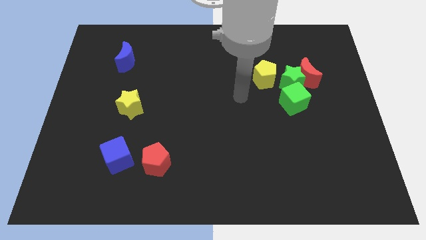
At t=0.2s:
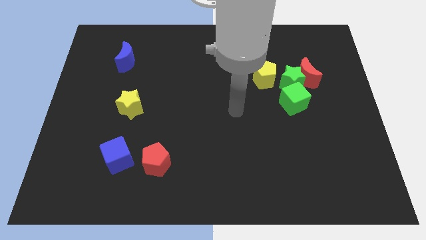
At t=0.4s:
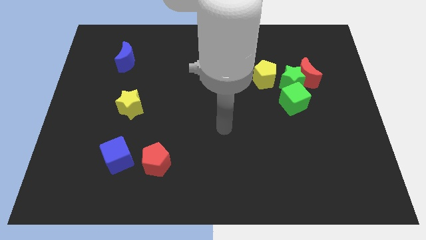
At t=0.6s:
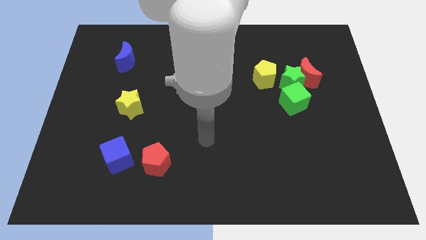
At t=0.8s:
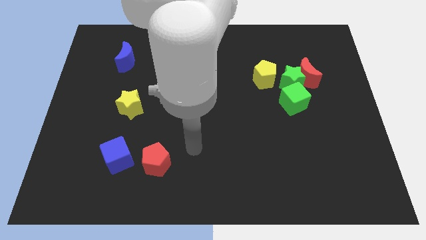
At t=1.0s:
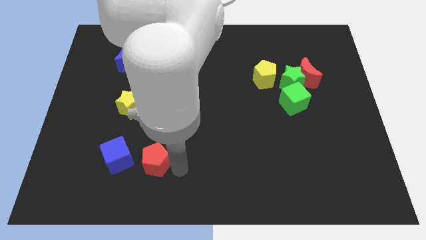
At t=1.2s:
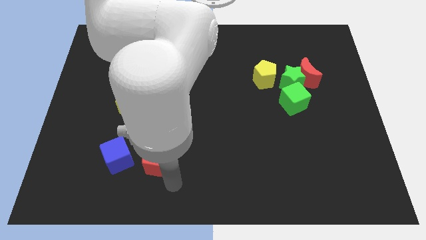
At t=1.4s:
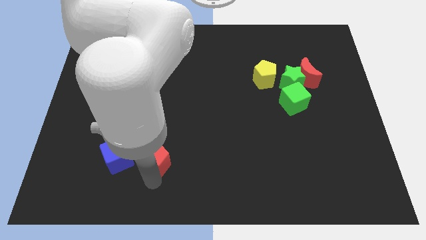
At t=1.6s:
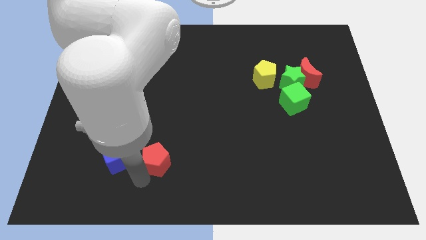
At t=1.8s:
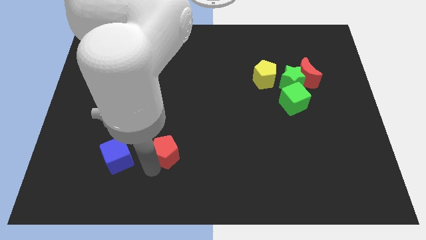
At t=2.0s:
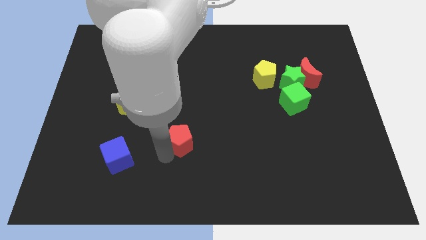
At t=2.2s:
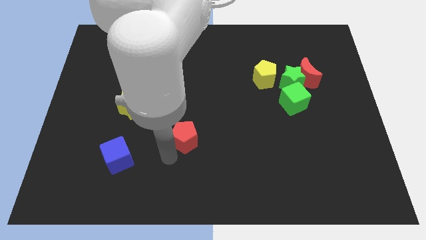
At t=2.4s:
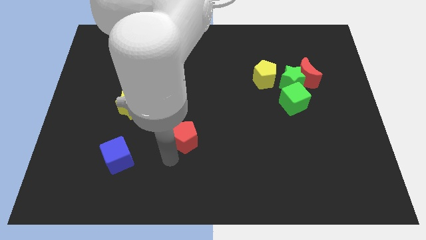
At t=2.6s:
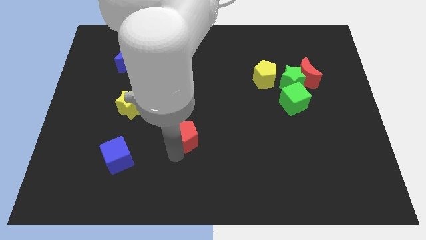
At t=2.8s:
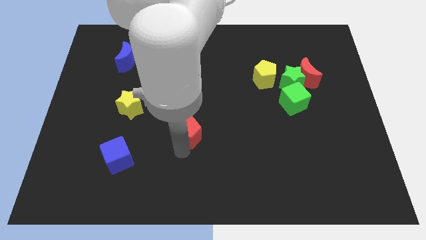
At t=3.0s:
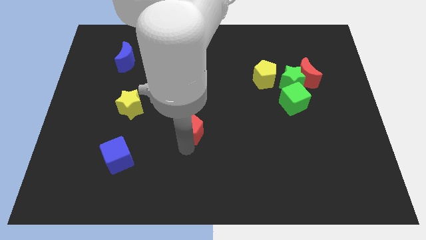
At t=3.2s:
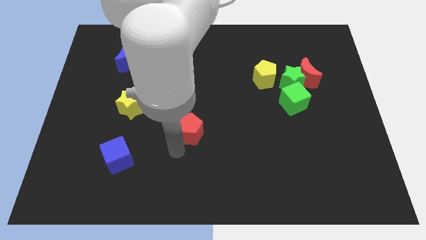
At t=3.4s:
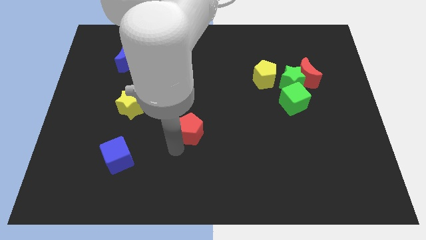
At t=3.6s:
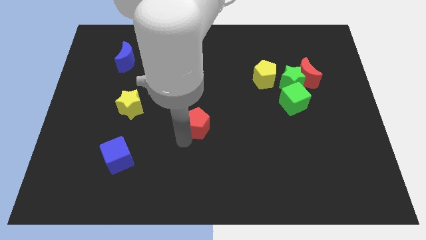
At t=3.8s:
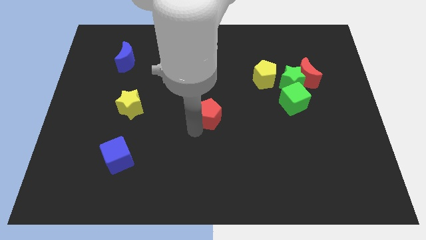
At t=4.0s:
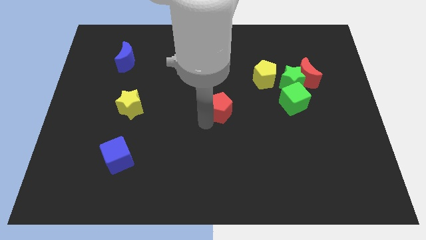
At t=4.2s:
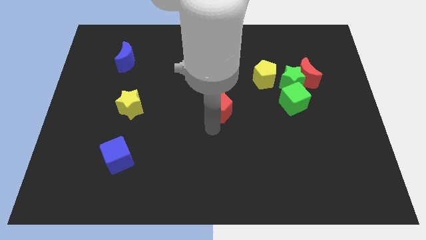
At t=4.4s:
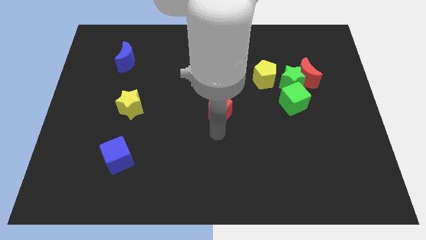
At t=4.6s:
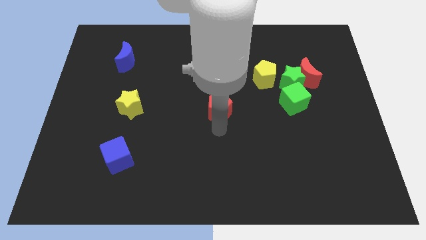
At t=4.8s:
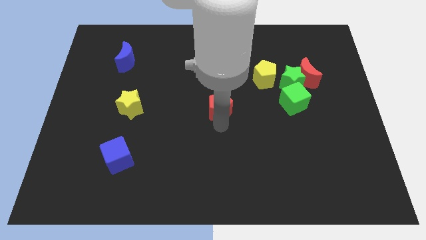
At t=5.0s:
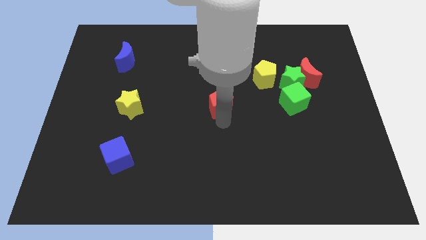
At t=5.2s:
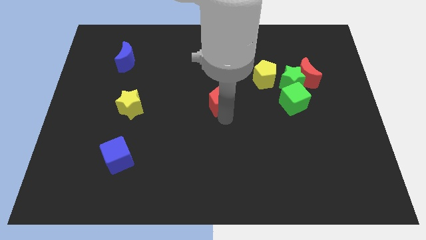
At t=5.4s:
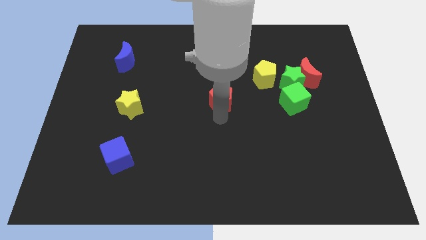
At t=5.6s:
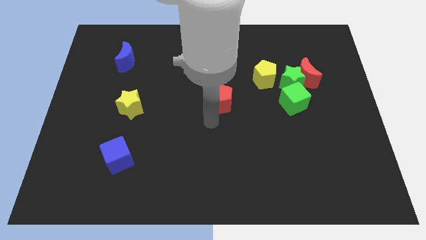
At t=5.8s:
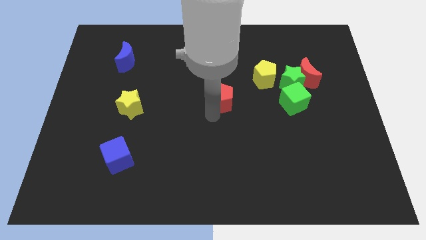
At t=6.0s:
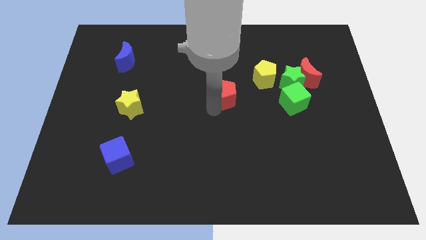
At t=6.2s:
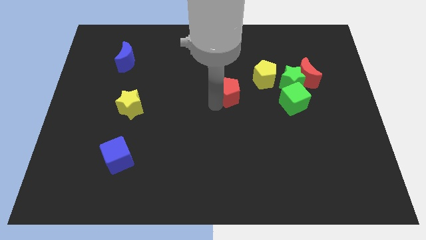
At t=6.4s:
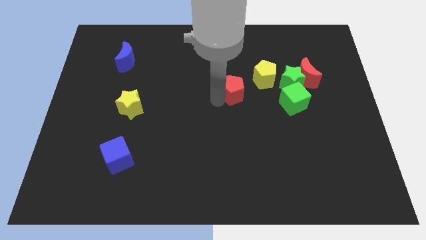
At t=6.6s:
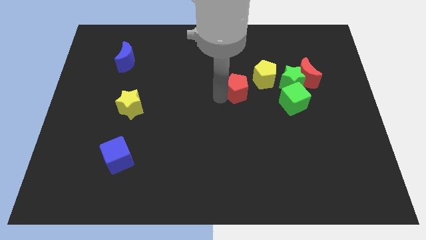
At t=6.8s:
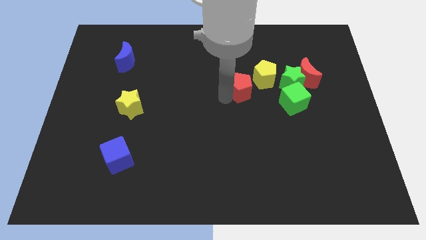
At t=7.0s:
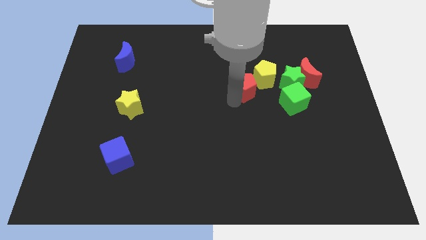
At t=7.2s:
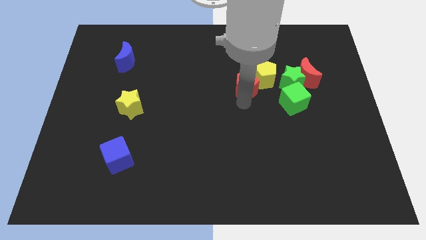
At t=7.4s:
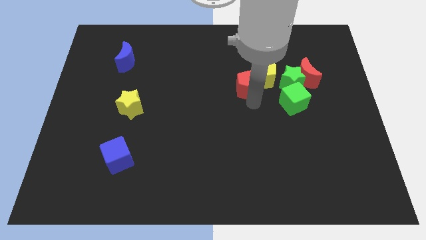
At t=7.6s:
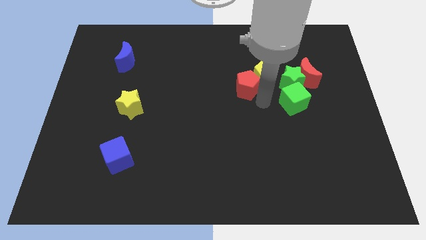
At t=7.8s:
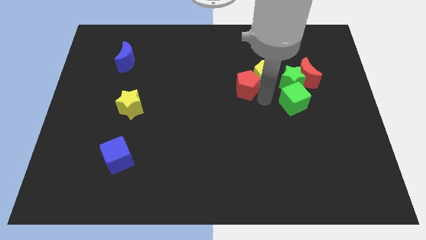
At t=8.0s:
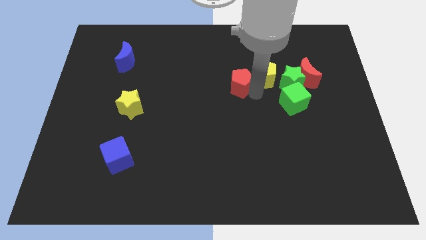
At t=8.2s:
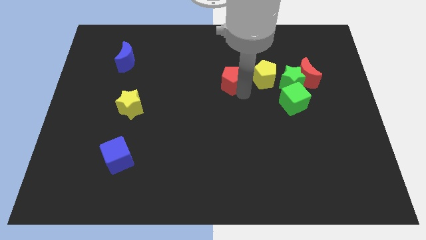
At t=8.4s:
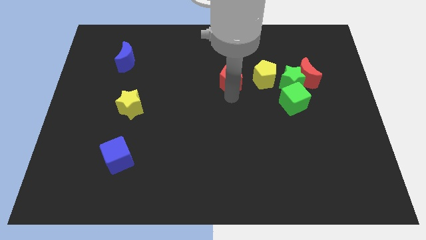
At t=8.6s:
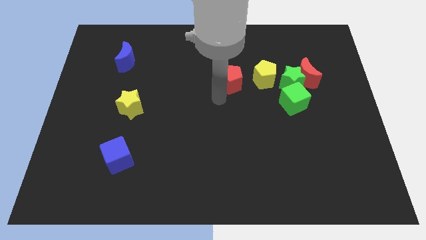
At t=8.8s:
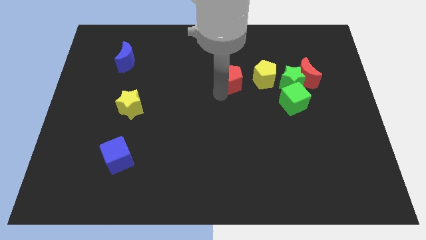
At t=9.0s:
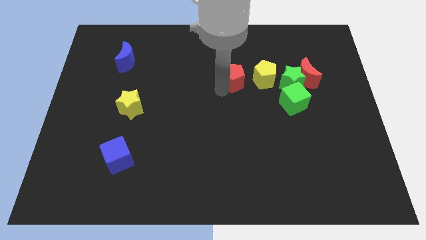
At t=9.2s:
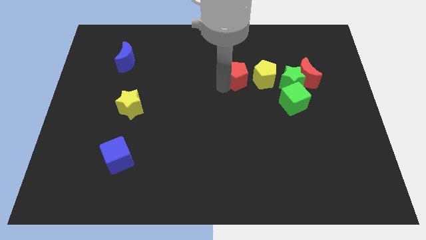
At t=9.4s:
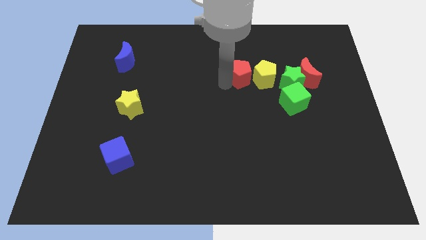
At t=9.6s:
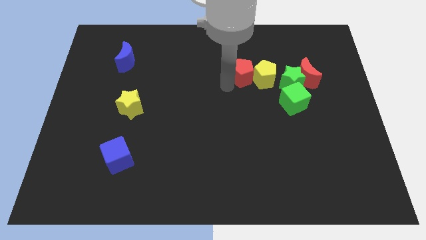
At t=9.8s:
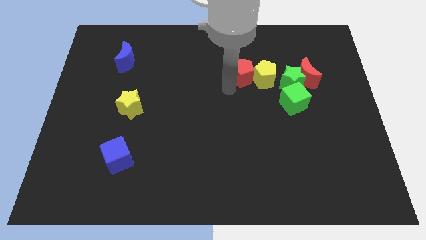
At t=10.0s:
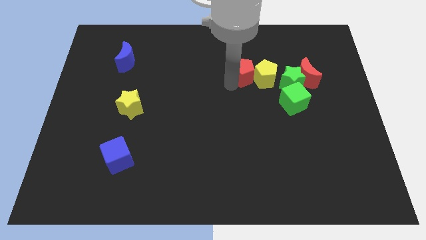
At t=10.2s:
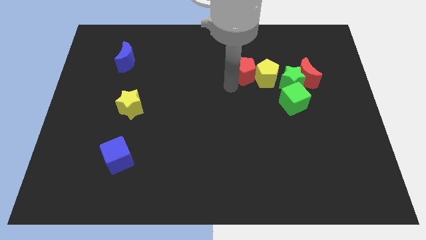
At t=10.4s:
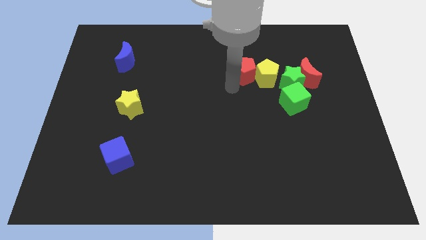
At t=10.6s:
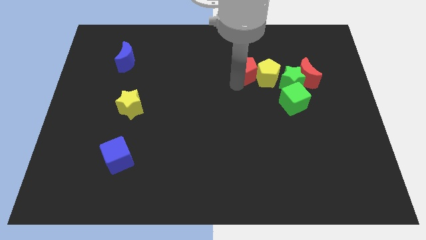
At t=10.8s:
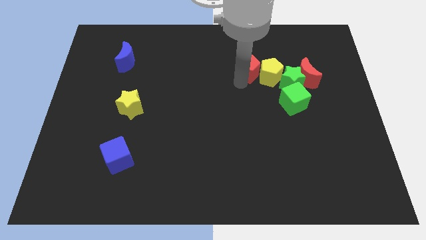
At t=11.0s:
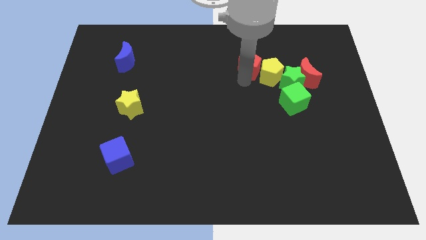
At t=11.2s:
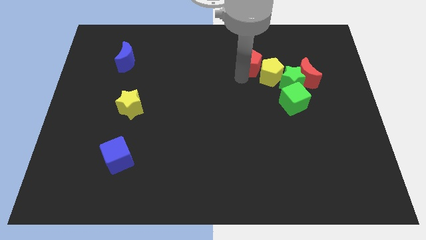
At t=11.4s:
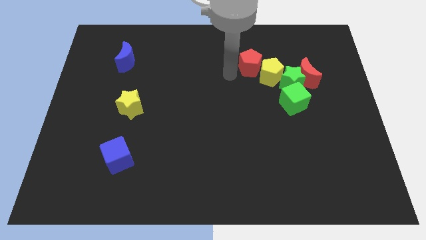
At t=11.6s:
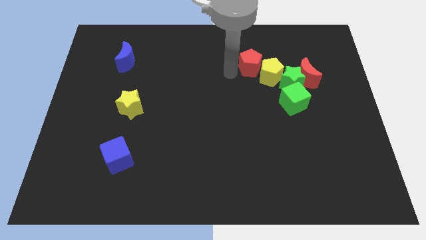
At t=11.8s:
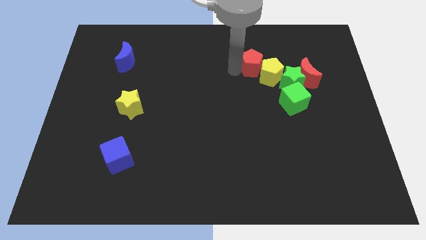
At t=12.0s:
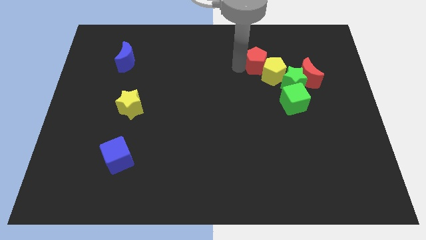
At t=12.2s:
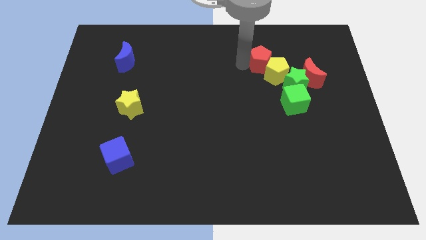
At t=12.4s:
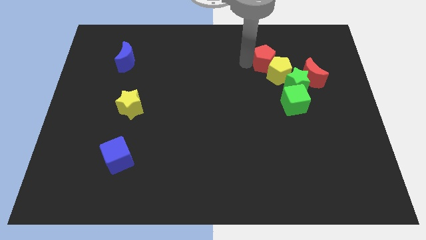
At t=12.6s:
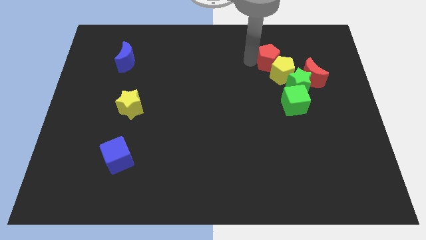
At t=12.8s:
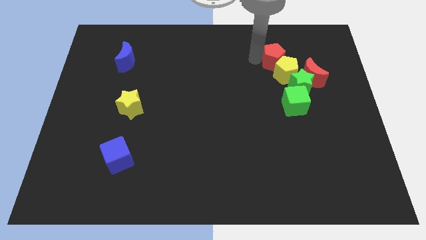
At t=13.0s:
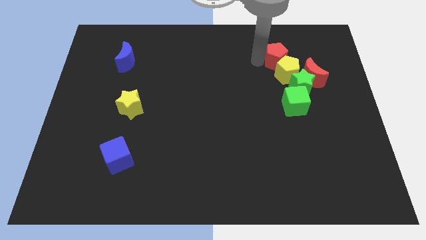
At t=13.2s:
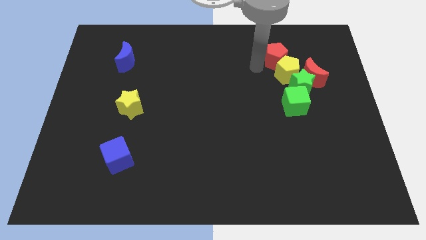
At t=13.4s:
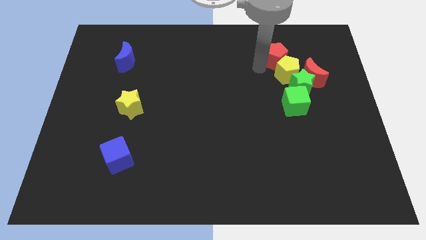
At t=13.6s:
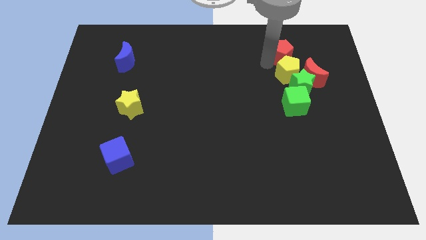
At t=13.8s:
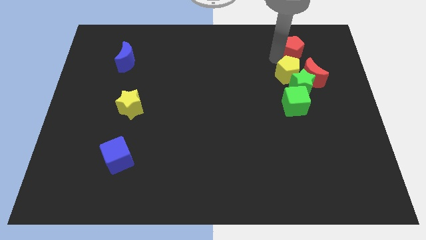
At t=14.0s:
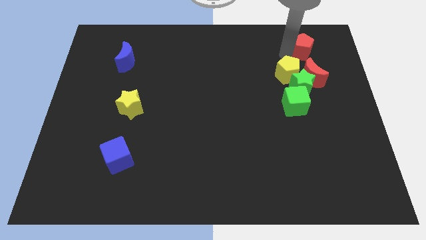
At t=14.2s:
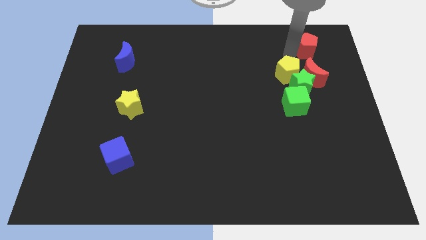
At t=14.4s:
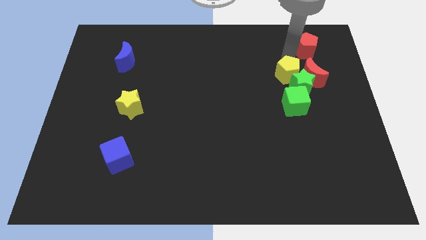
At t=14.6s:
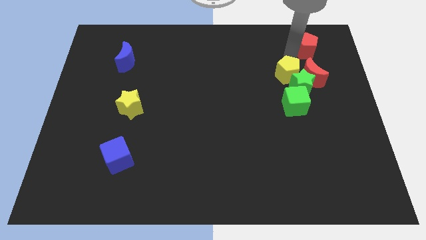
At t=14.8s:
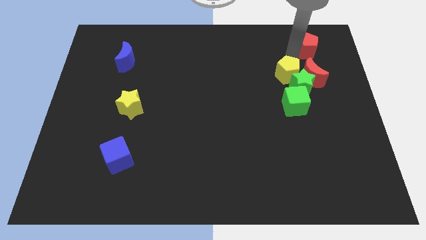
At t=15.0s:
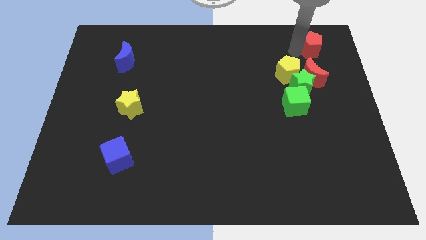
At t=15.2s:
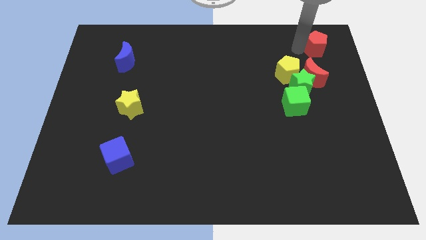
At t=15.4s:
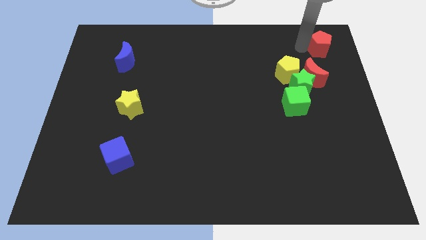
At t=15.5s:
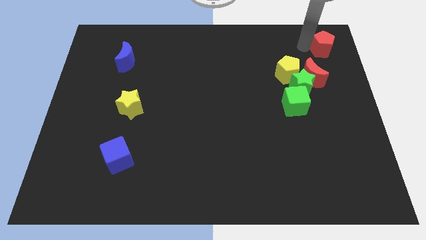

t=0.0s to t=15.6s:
move the red pentagon to the upper right corner
